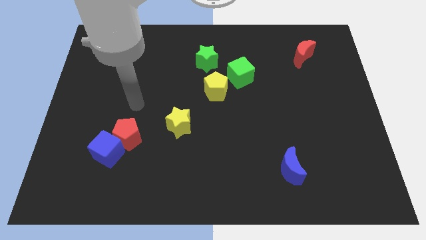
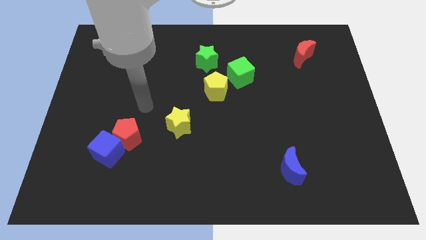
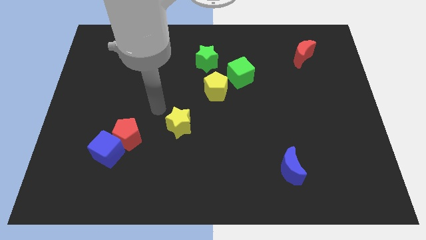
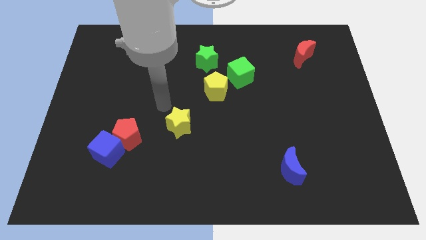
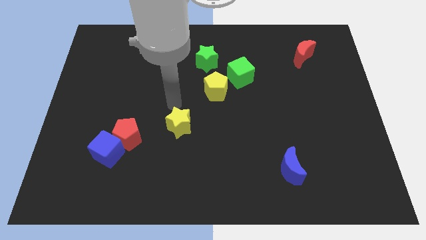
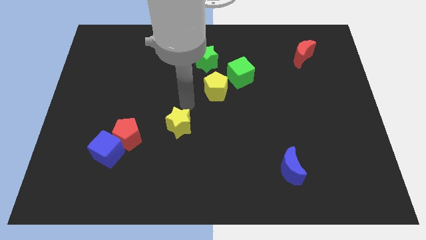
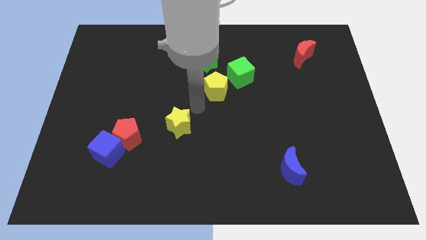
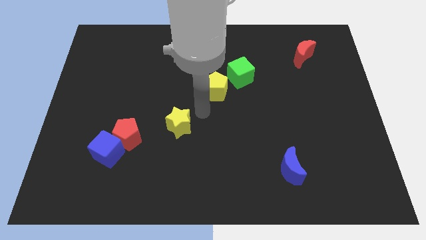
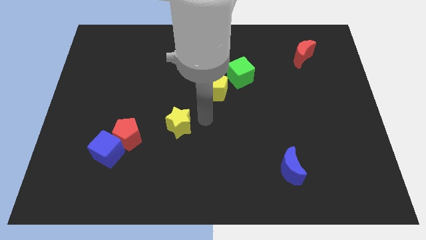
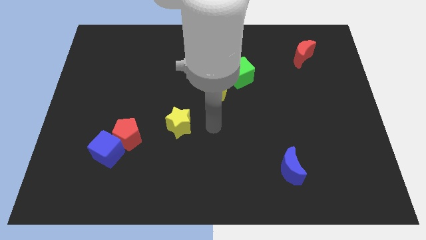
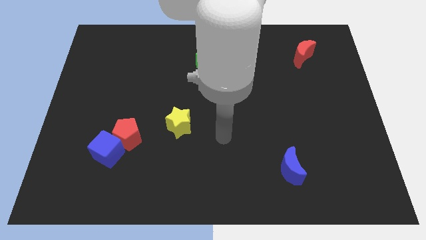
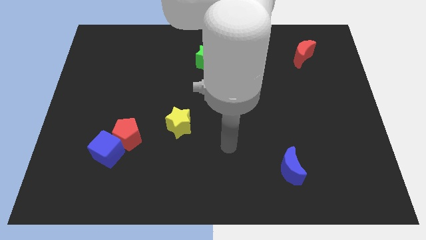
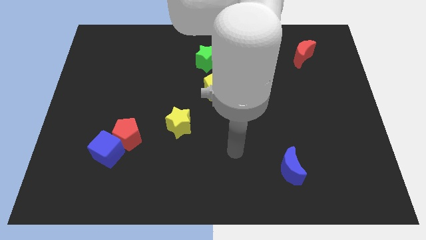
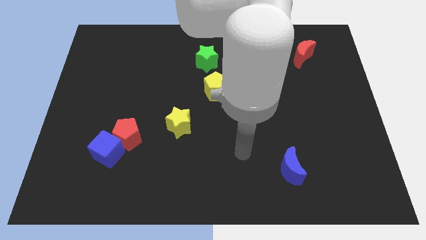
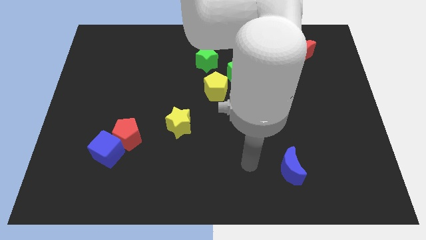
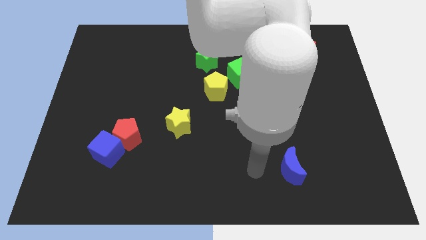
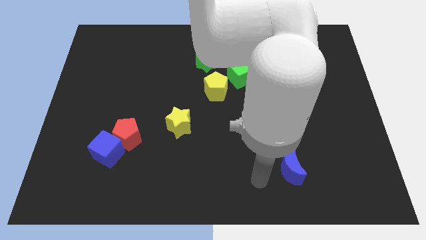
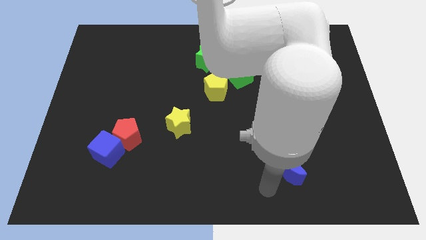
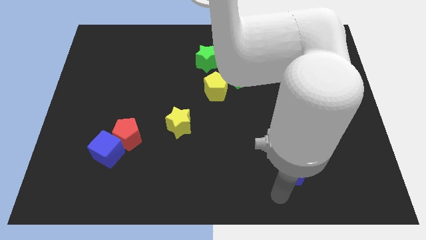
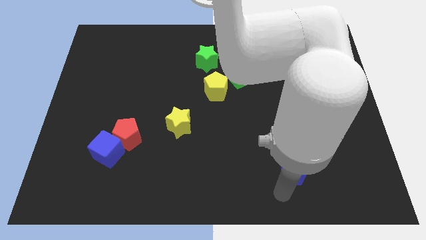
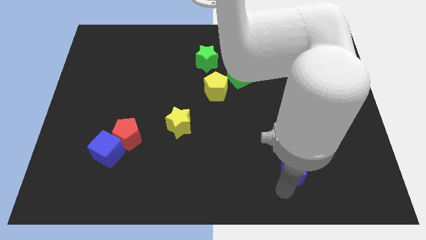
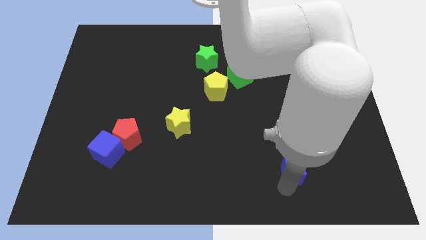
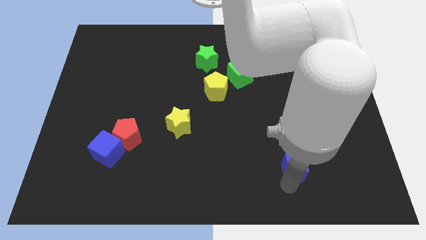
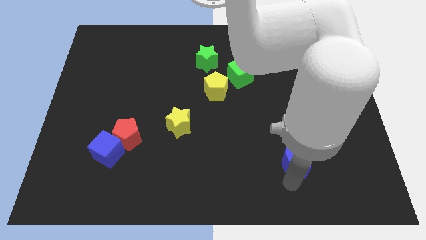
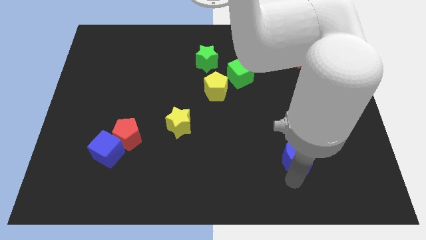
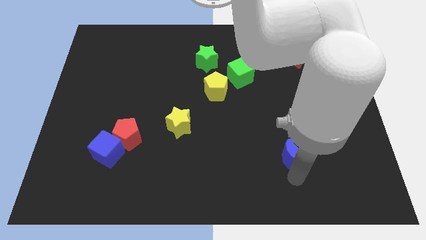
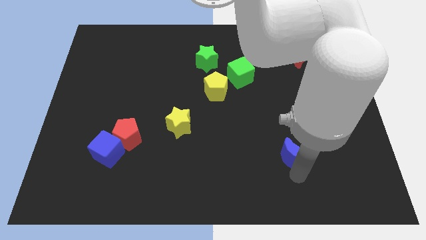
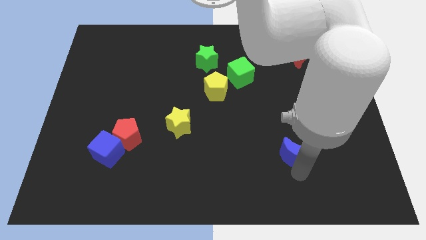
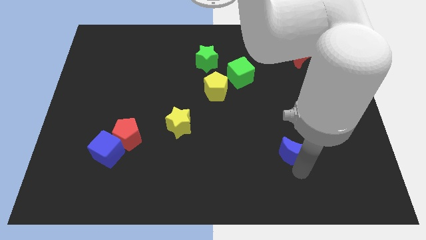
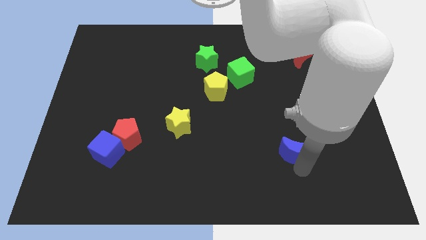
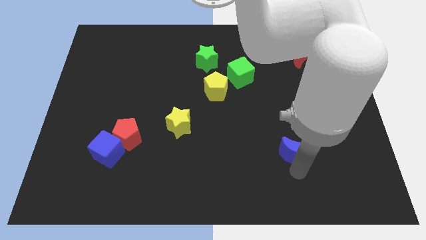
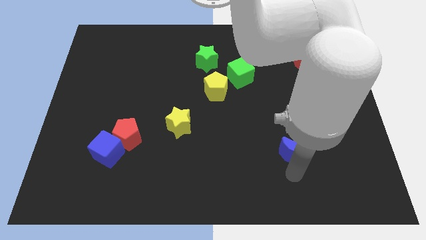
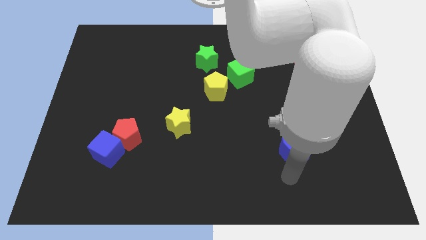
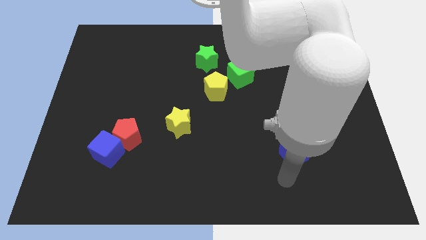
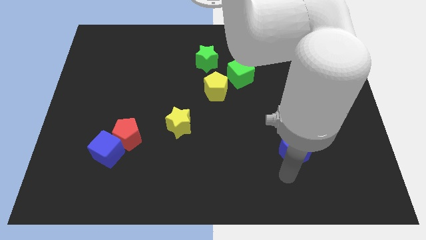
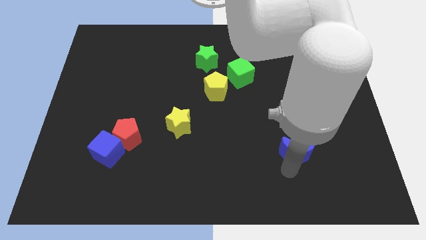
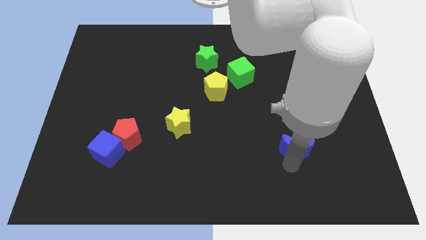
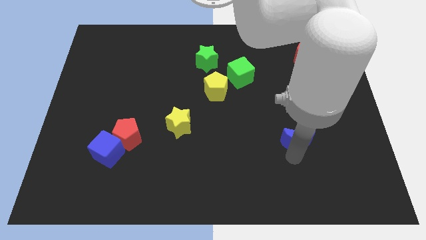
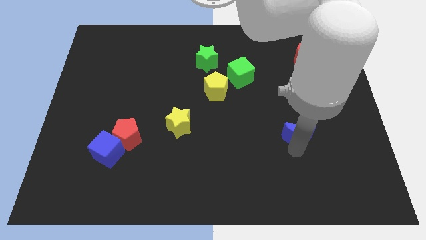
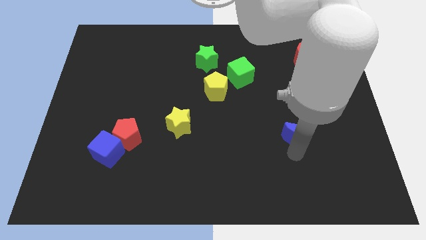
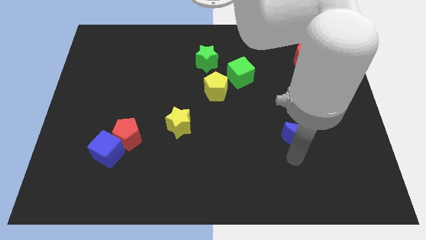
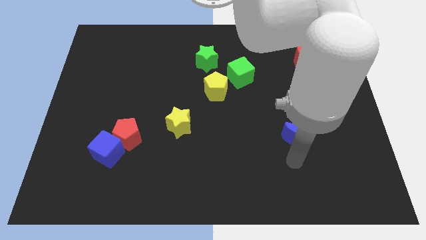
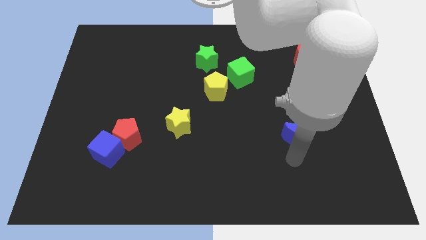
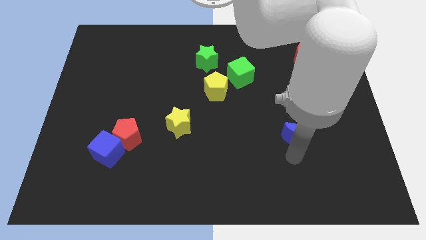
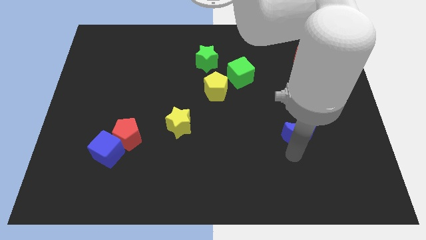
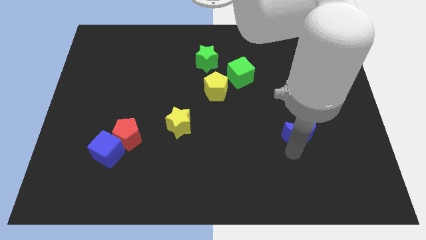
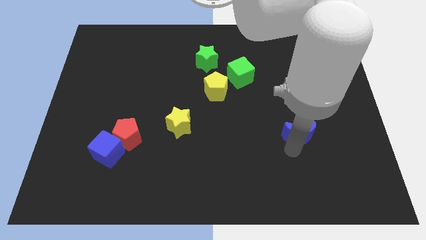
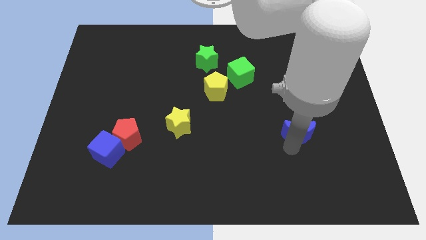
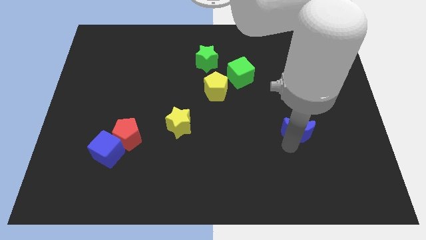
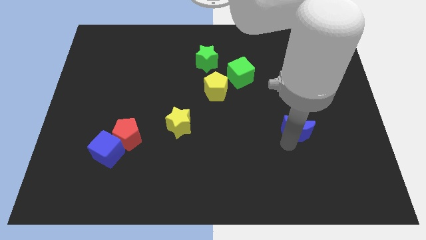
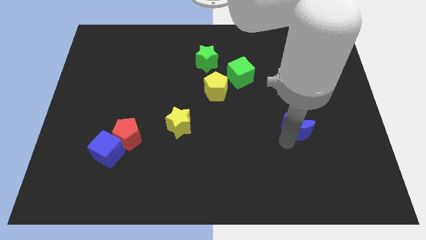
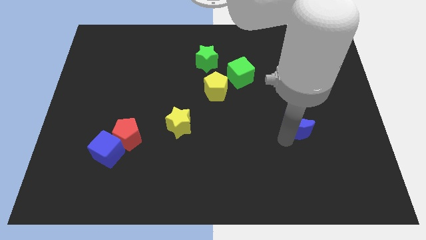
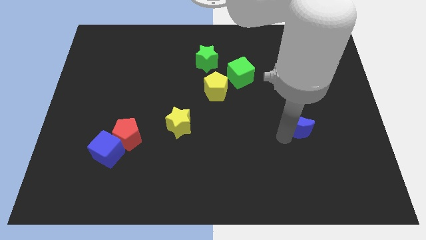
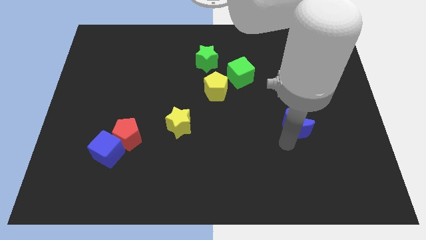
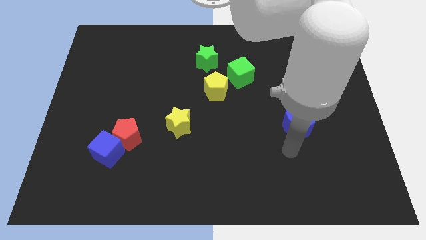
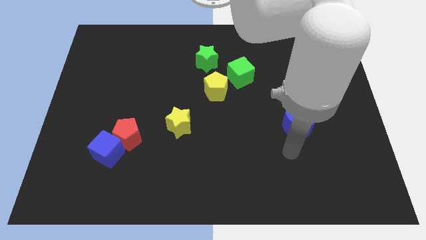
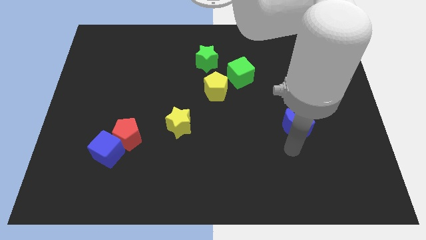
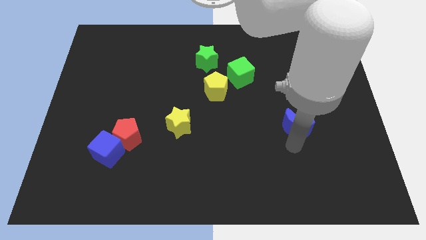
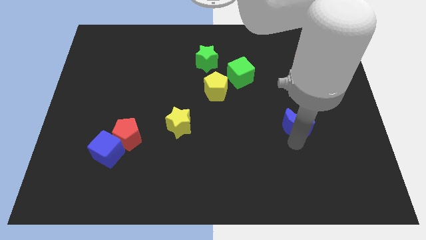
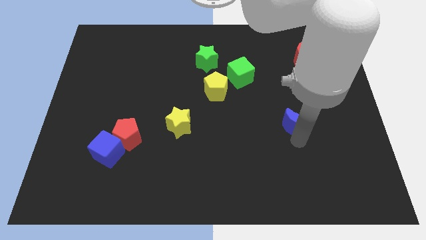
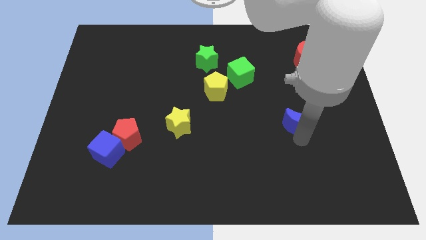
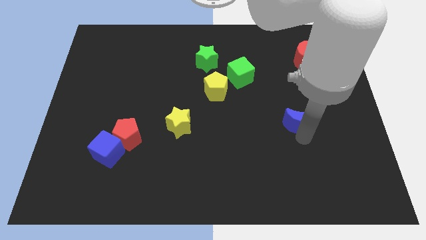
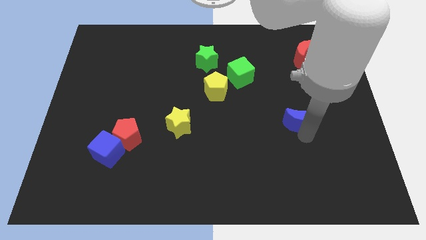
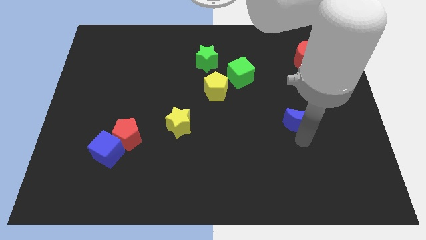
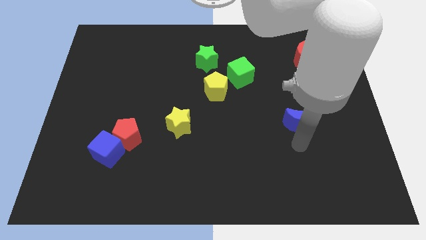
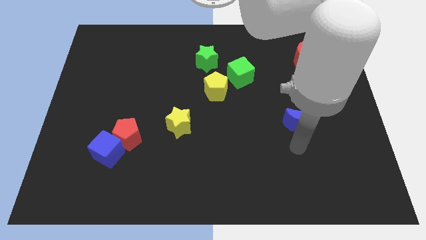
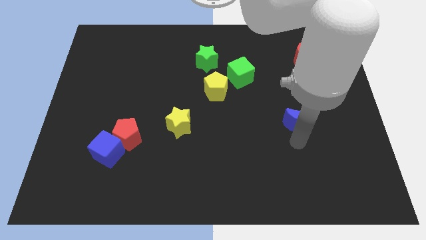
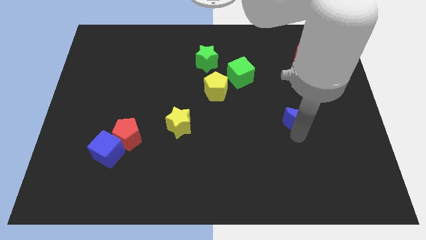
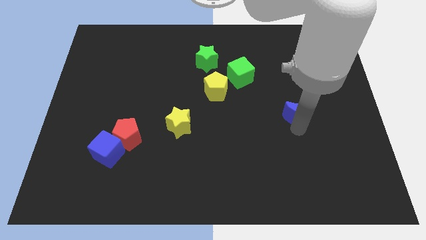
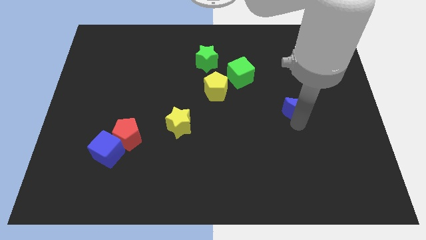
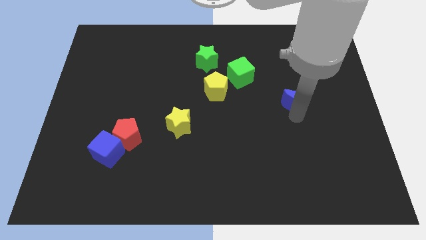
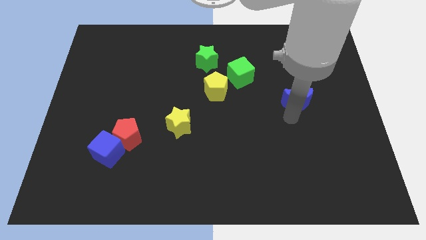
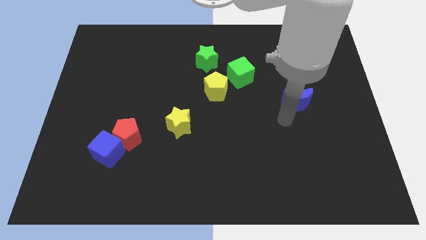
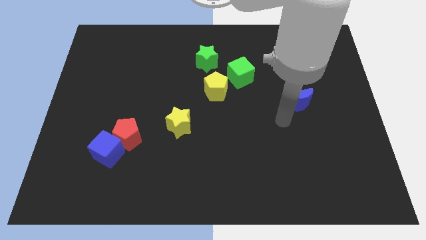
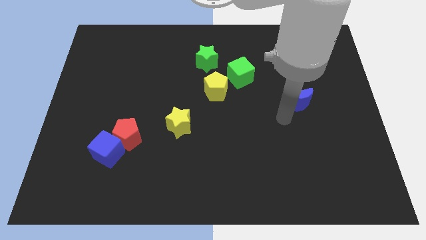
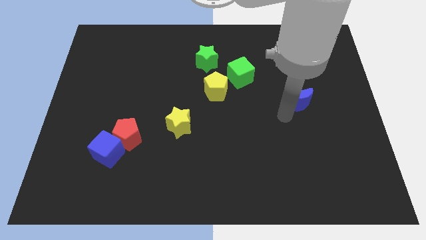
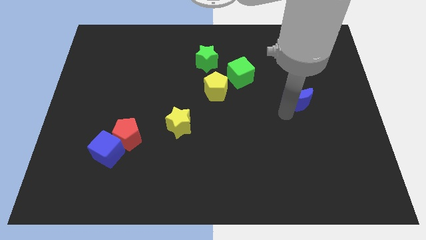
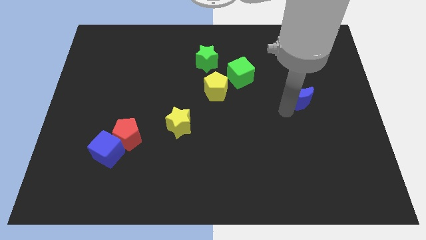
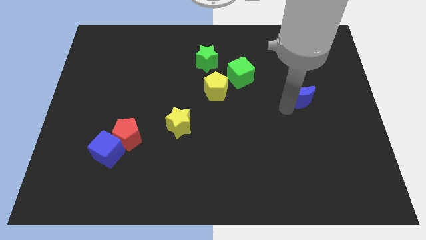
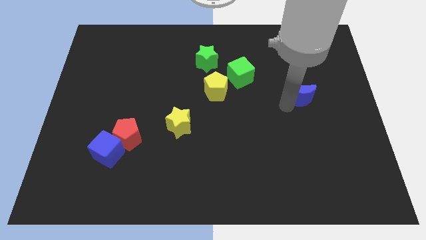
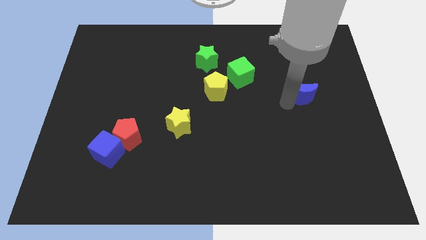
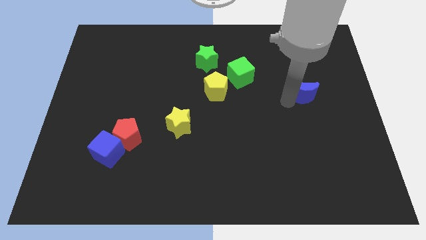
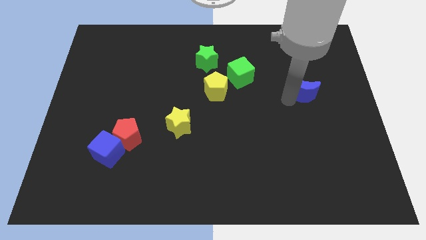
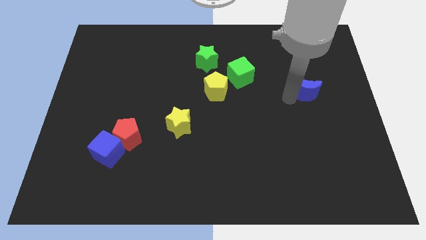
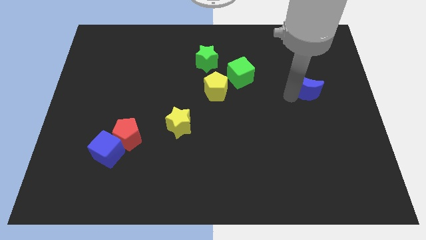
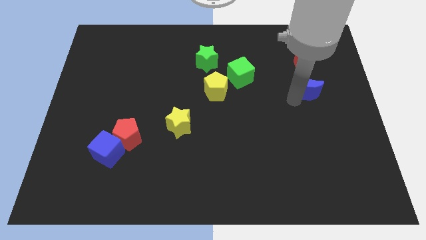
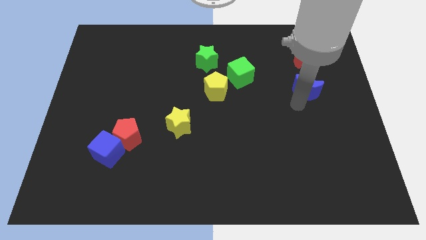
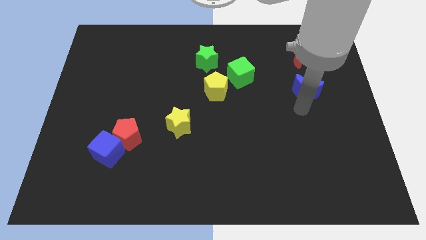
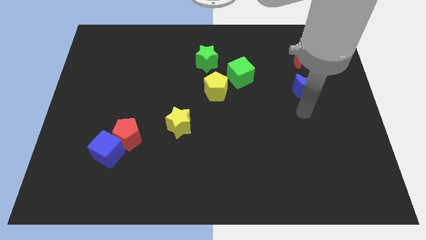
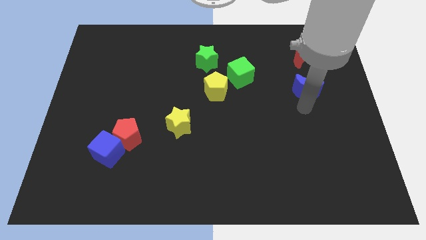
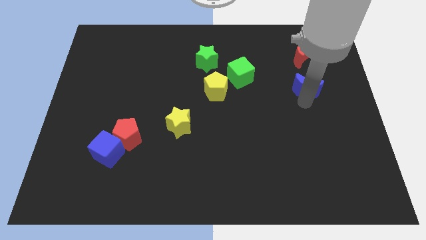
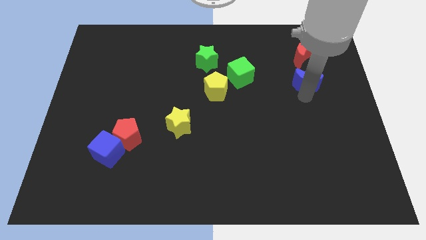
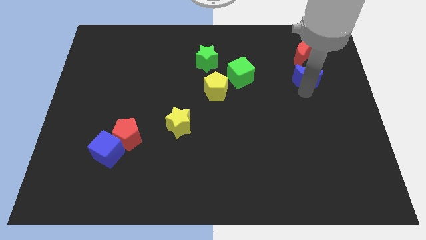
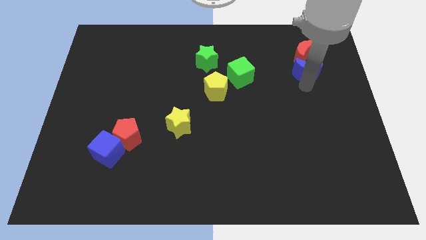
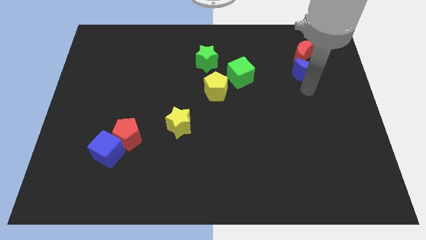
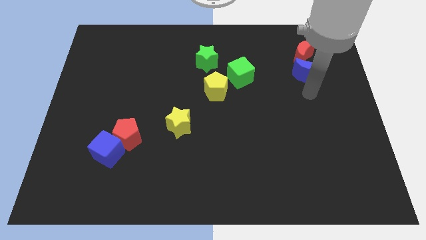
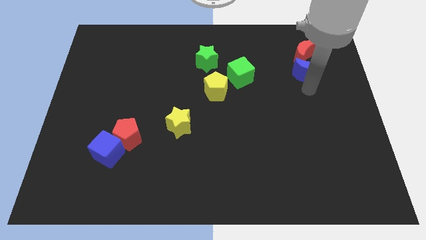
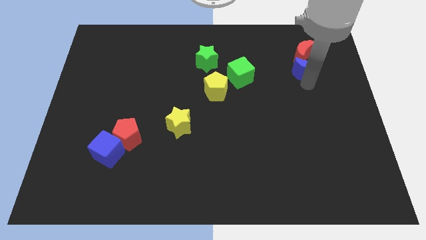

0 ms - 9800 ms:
move the blue moon next to the red moon
